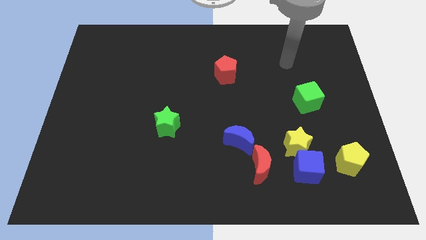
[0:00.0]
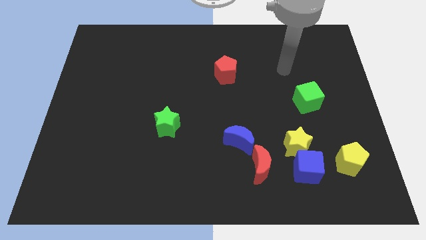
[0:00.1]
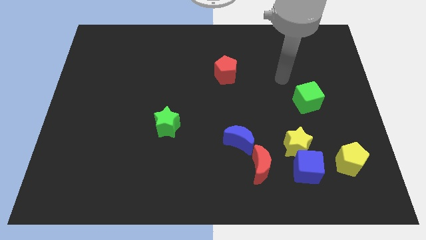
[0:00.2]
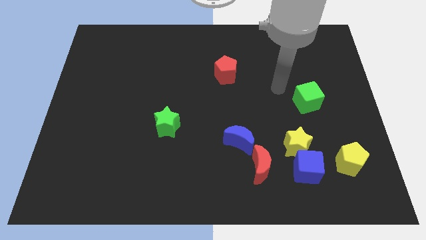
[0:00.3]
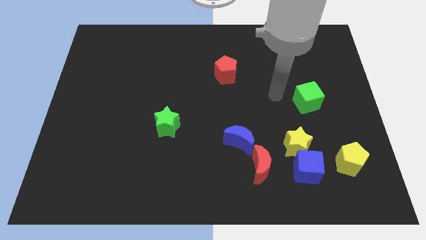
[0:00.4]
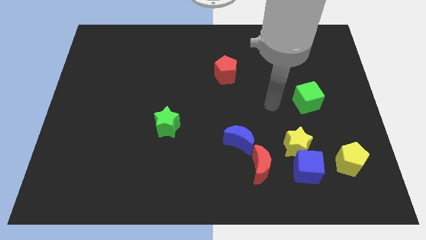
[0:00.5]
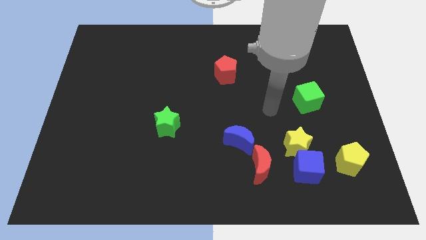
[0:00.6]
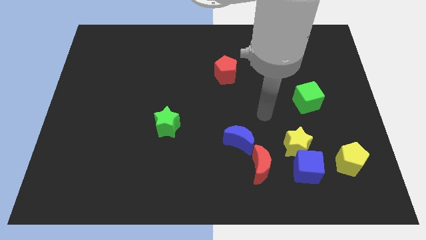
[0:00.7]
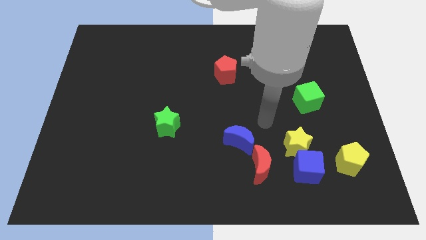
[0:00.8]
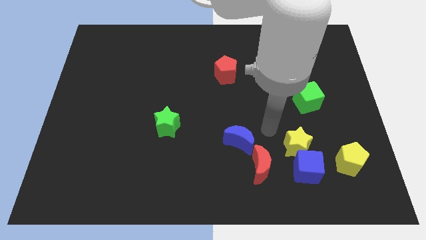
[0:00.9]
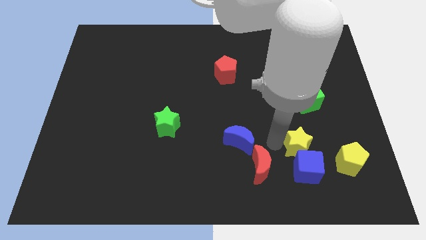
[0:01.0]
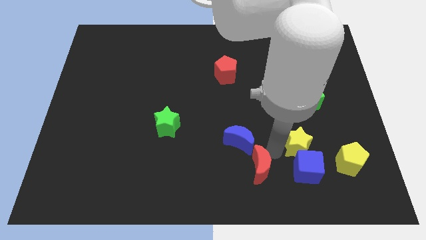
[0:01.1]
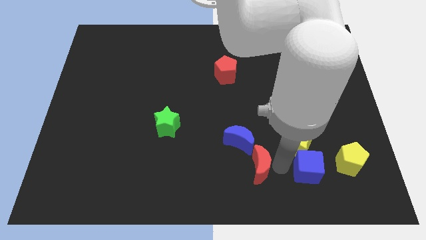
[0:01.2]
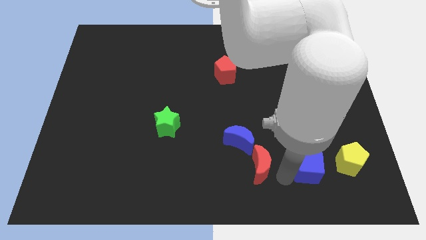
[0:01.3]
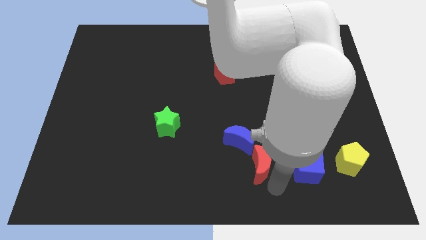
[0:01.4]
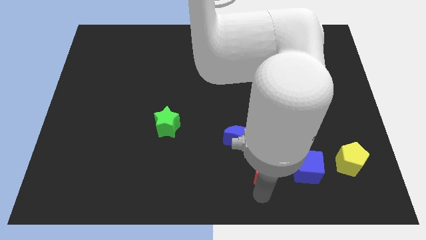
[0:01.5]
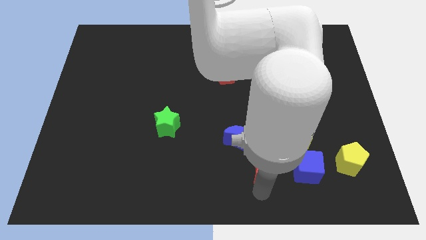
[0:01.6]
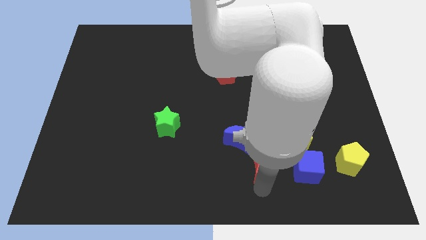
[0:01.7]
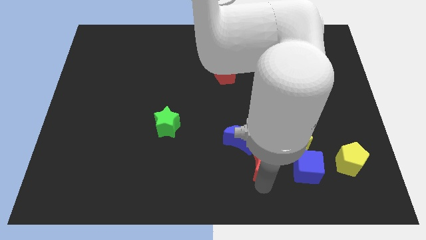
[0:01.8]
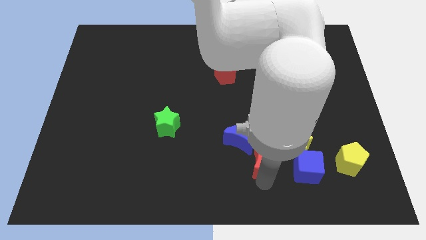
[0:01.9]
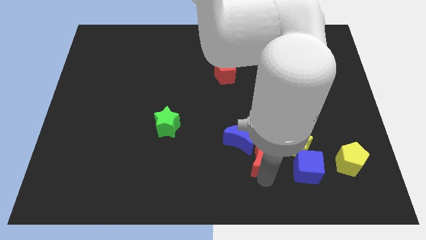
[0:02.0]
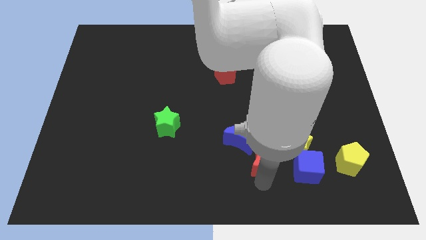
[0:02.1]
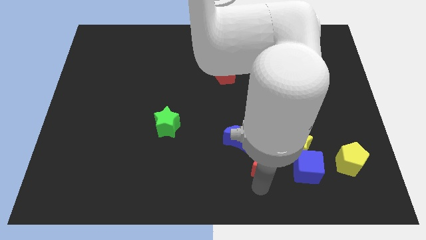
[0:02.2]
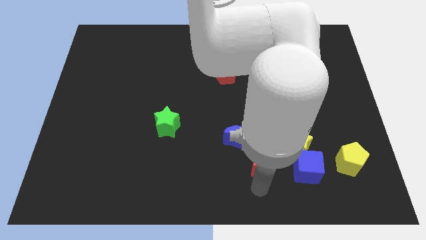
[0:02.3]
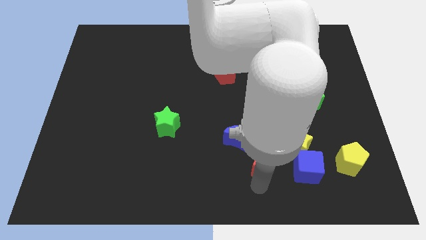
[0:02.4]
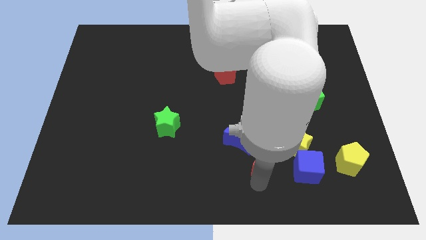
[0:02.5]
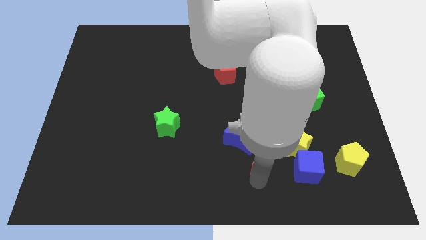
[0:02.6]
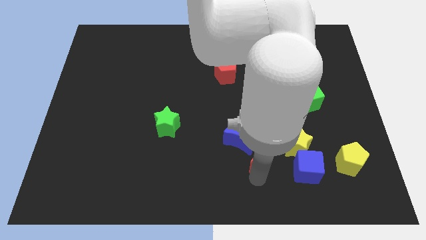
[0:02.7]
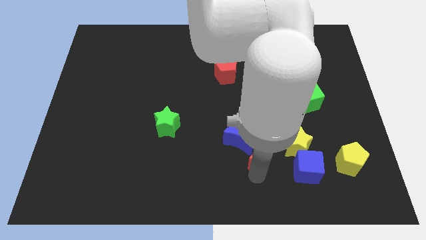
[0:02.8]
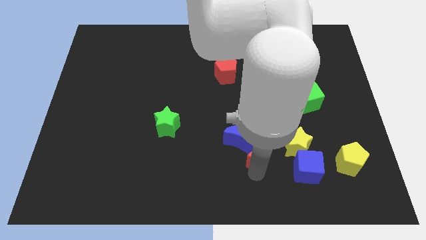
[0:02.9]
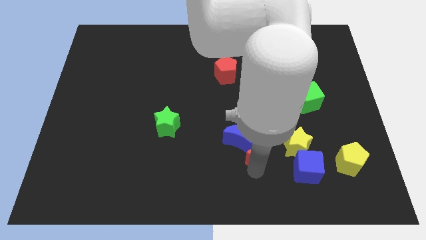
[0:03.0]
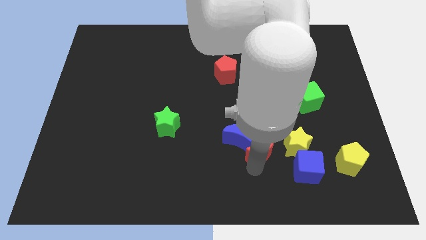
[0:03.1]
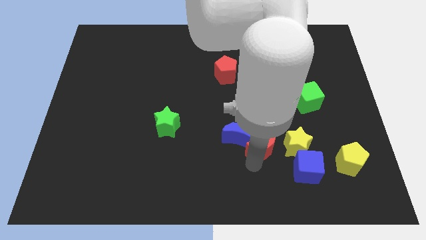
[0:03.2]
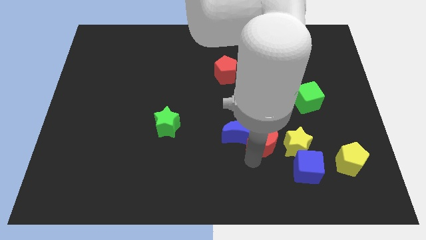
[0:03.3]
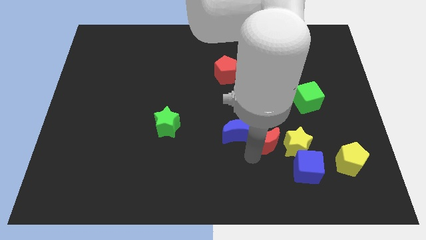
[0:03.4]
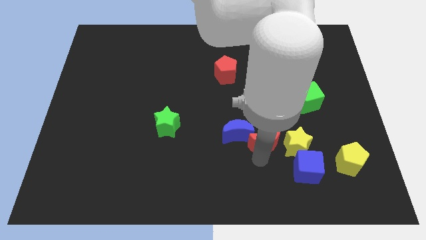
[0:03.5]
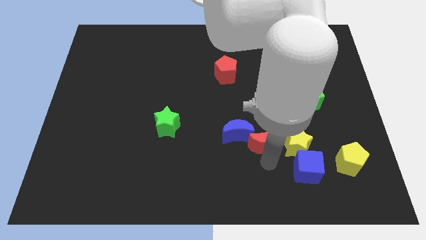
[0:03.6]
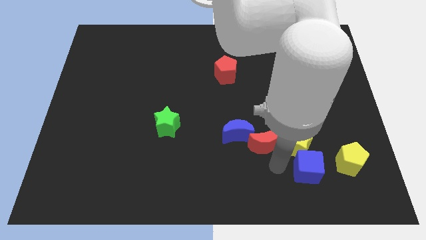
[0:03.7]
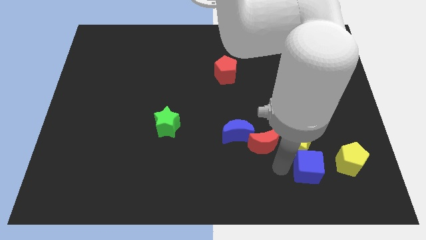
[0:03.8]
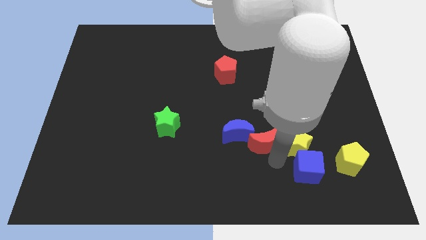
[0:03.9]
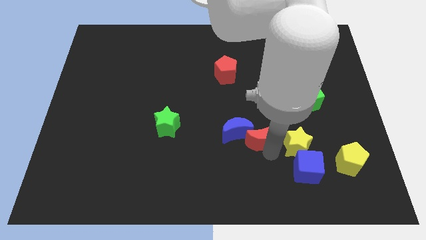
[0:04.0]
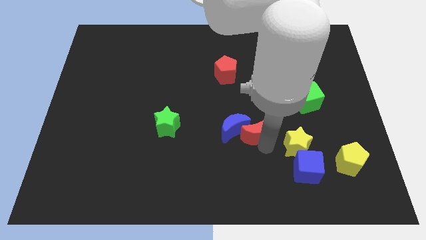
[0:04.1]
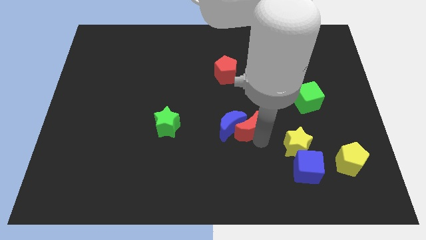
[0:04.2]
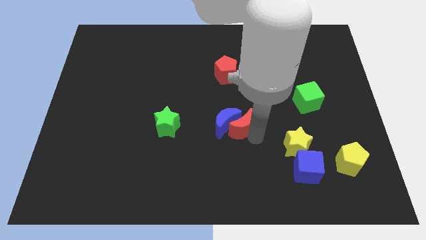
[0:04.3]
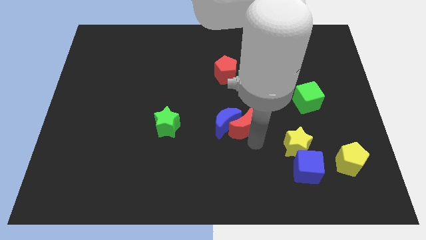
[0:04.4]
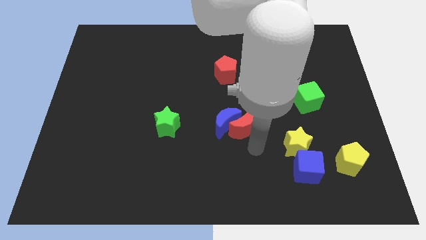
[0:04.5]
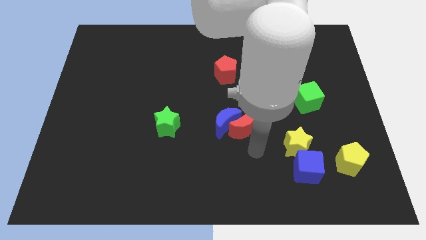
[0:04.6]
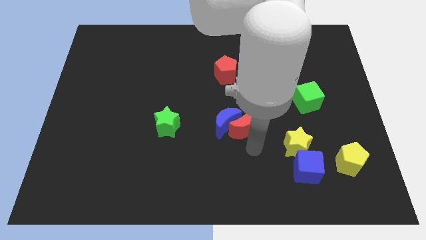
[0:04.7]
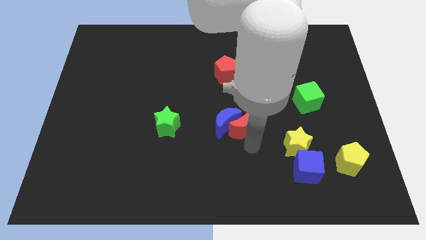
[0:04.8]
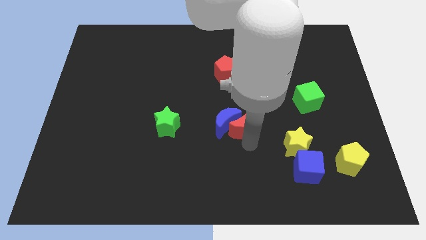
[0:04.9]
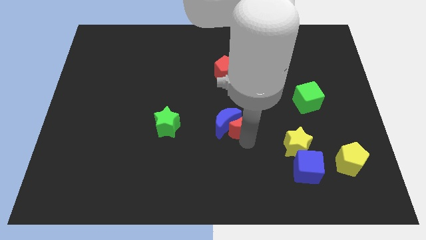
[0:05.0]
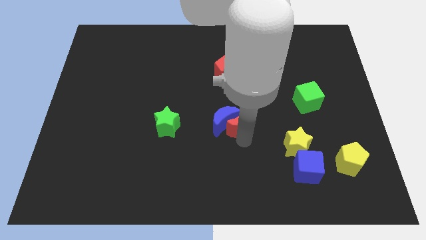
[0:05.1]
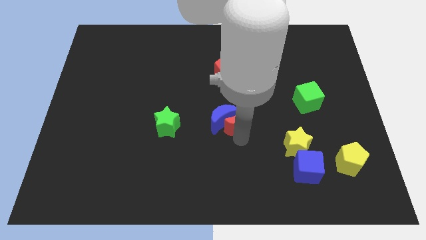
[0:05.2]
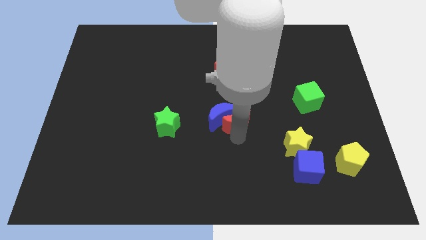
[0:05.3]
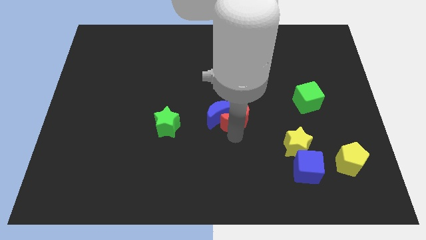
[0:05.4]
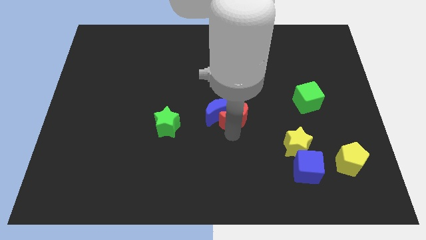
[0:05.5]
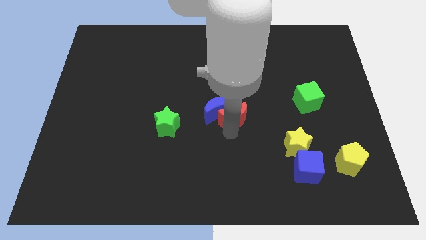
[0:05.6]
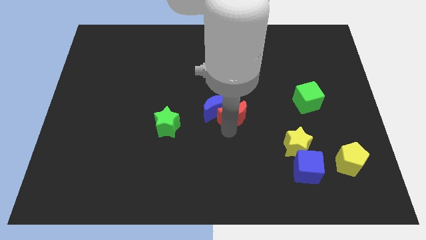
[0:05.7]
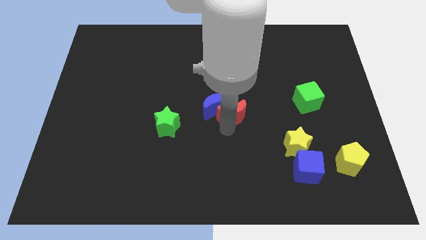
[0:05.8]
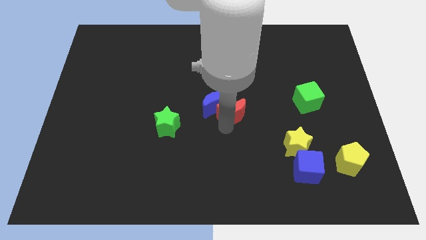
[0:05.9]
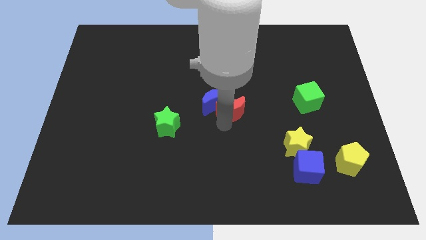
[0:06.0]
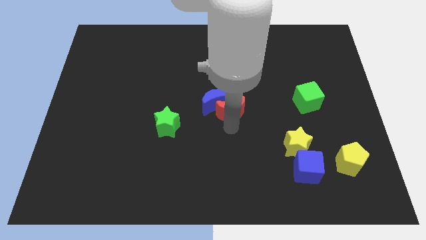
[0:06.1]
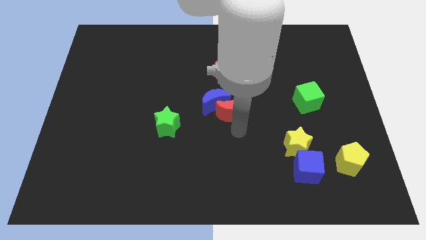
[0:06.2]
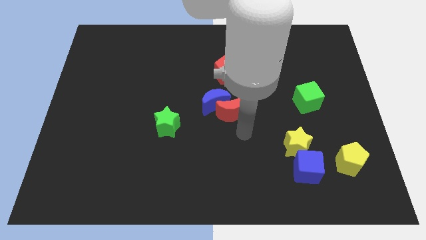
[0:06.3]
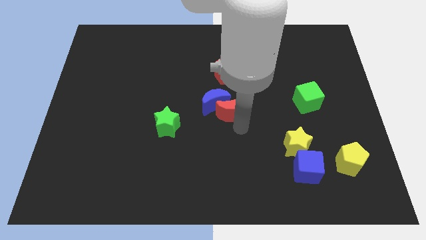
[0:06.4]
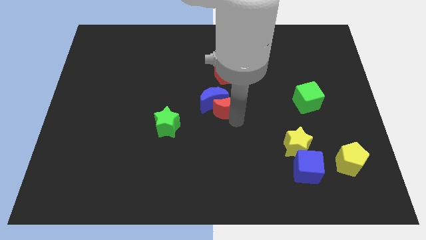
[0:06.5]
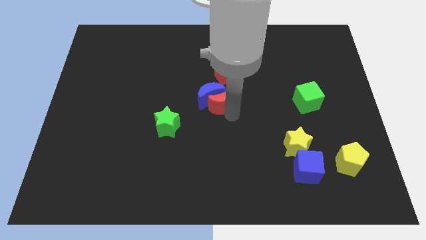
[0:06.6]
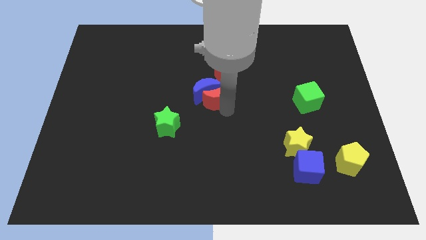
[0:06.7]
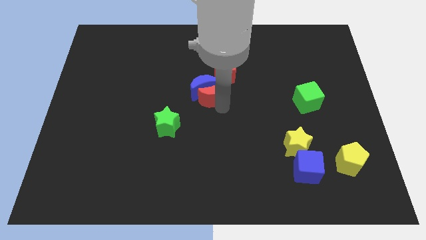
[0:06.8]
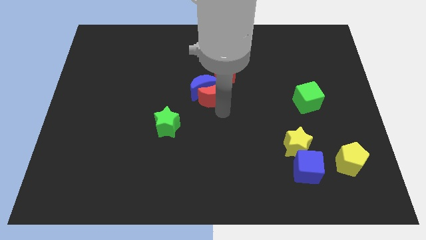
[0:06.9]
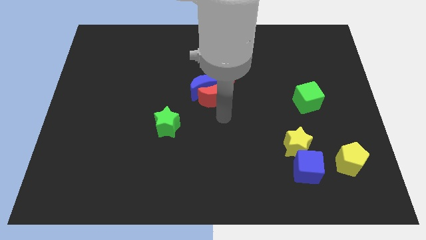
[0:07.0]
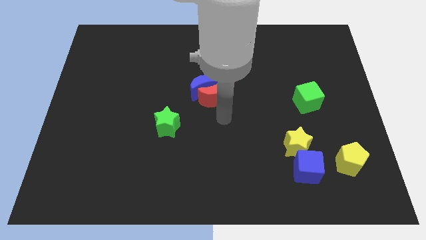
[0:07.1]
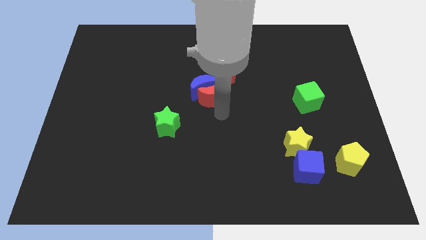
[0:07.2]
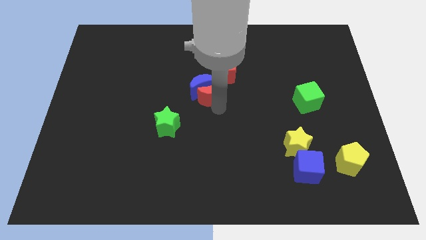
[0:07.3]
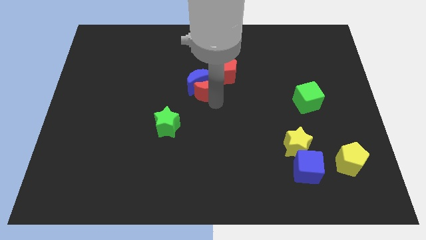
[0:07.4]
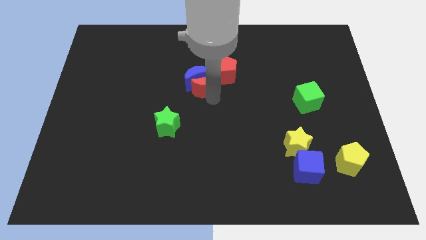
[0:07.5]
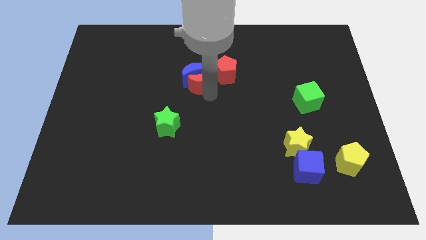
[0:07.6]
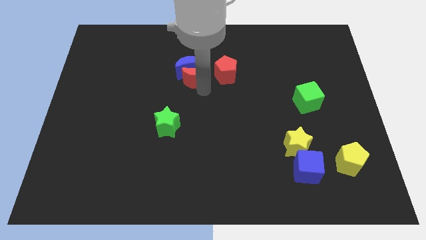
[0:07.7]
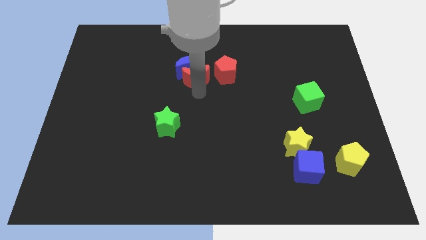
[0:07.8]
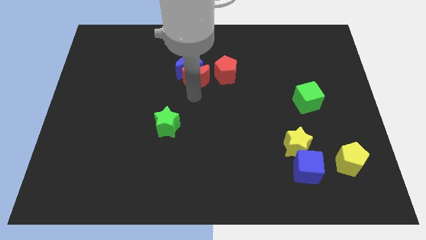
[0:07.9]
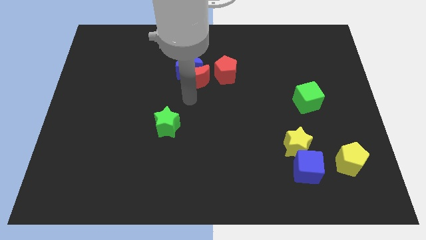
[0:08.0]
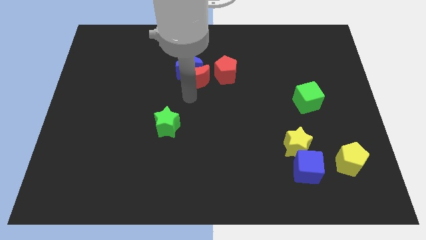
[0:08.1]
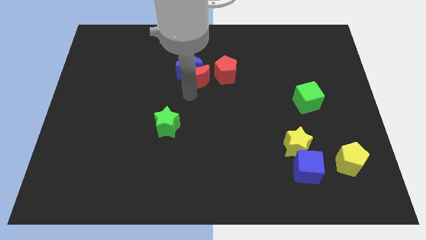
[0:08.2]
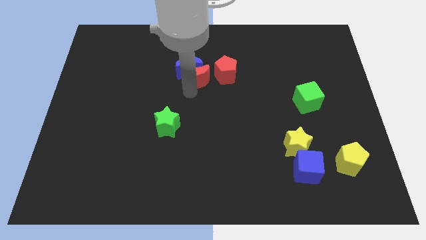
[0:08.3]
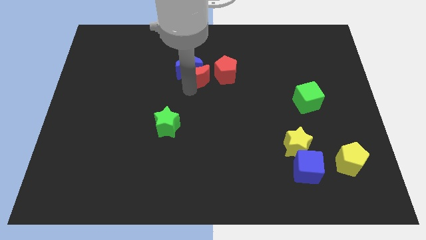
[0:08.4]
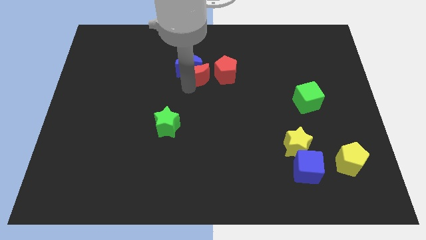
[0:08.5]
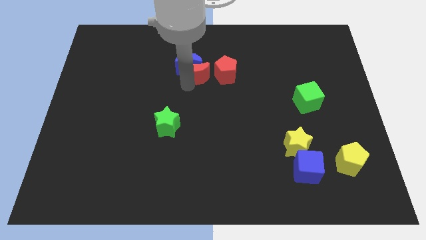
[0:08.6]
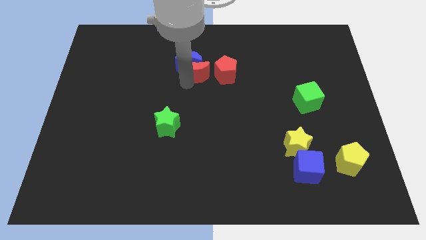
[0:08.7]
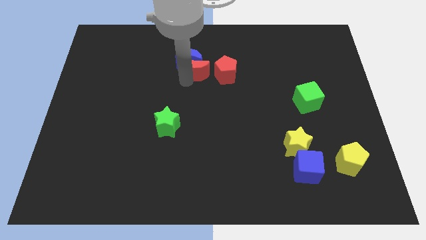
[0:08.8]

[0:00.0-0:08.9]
put the red moon diagonally up and to the left of the red pentagon
